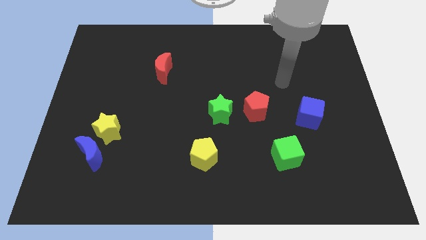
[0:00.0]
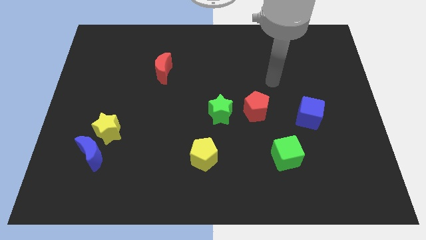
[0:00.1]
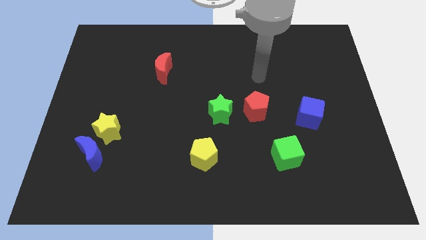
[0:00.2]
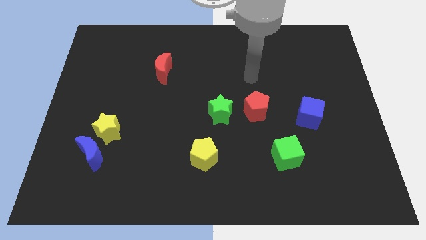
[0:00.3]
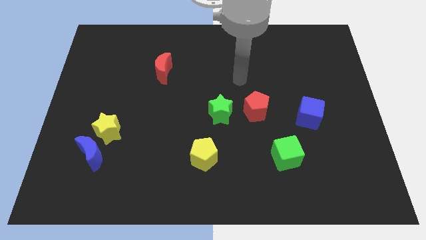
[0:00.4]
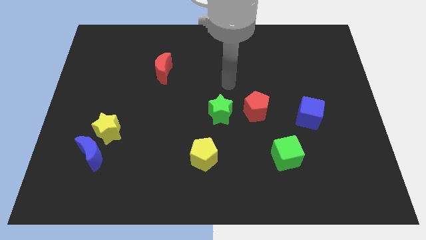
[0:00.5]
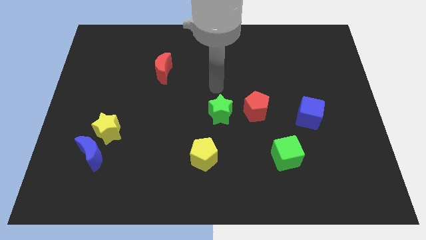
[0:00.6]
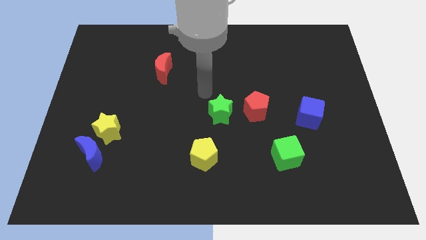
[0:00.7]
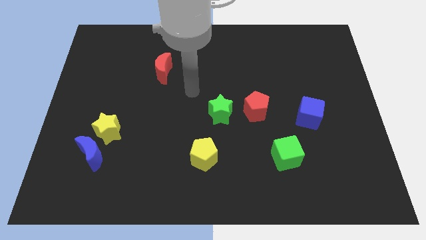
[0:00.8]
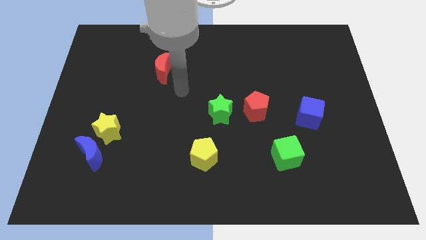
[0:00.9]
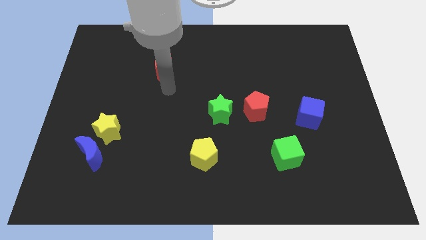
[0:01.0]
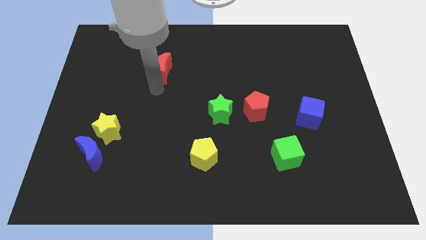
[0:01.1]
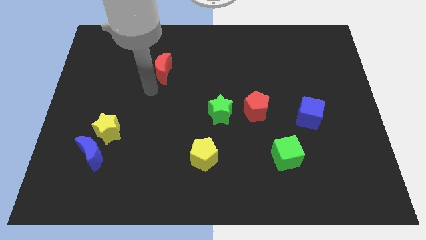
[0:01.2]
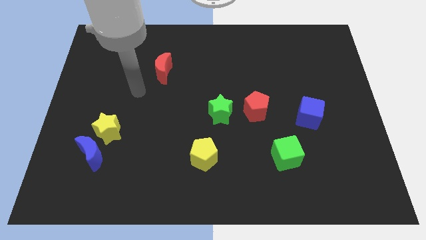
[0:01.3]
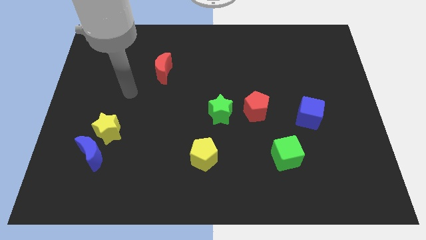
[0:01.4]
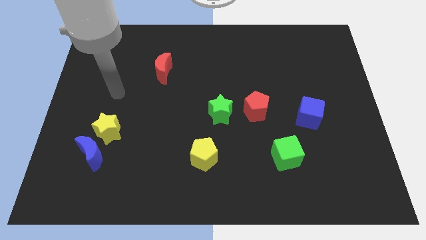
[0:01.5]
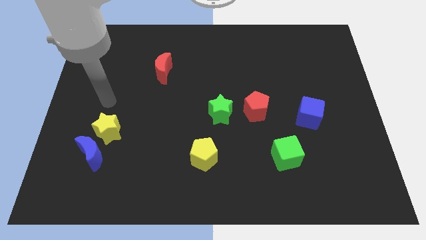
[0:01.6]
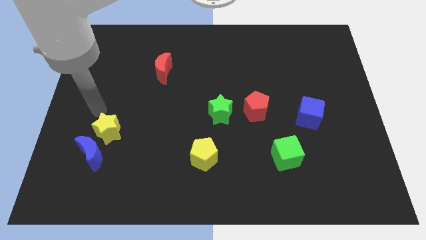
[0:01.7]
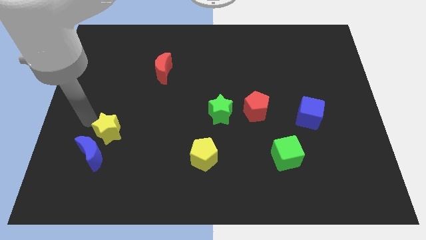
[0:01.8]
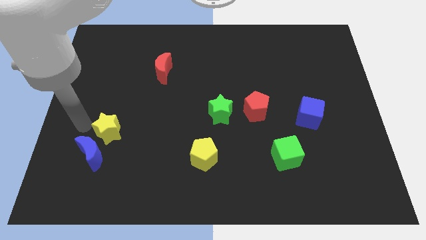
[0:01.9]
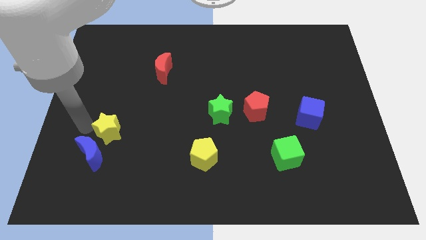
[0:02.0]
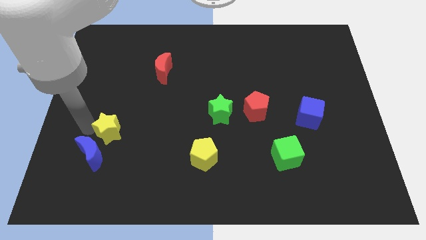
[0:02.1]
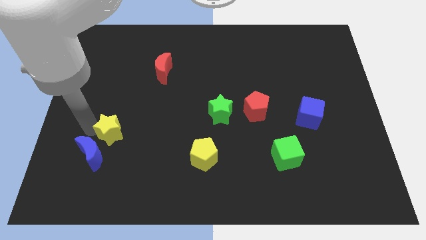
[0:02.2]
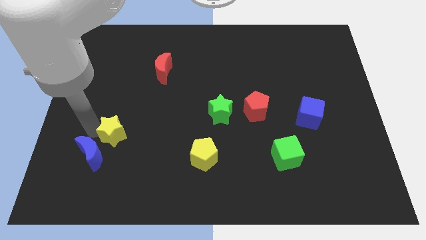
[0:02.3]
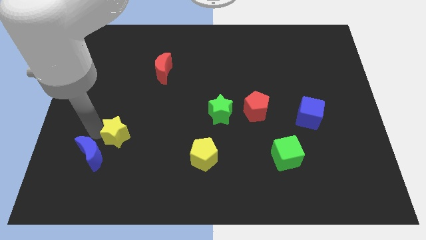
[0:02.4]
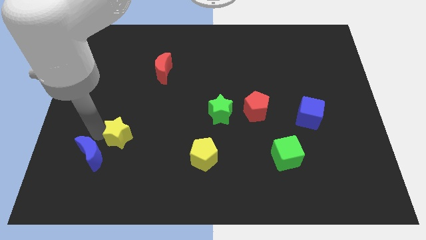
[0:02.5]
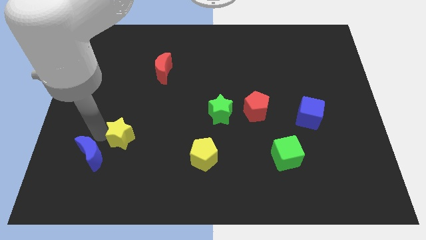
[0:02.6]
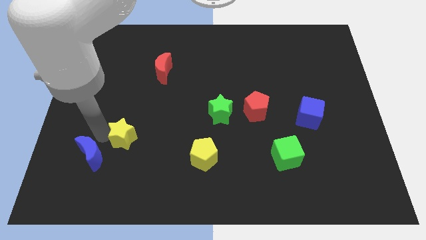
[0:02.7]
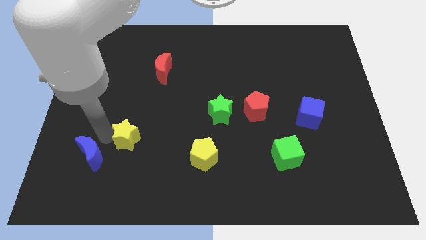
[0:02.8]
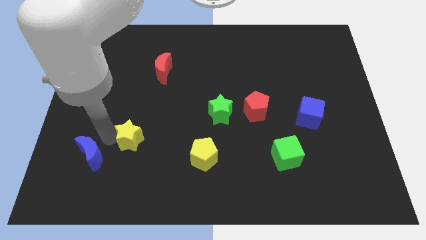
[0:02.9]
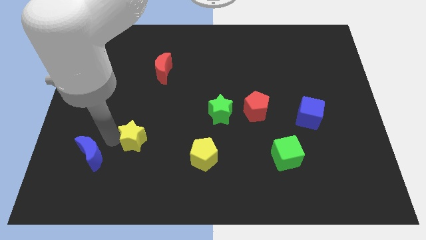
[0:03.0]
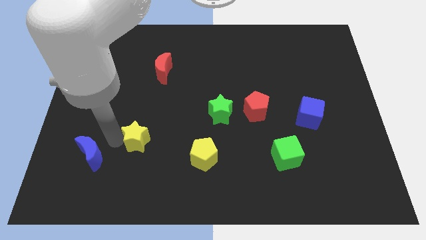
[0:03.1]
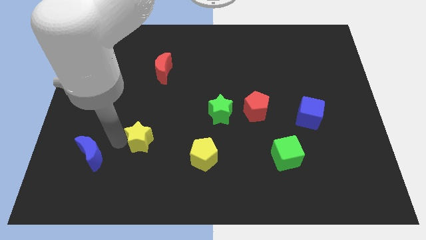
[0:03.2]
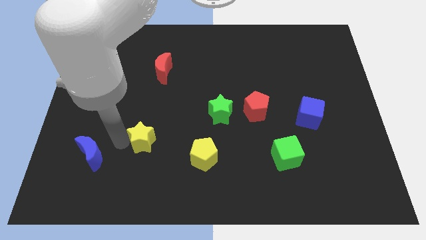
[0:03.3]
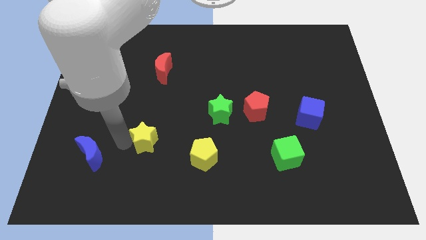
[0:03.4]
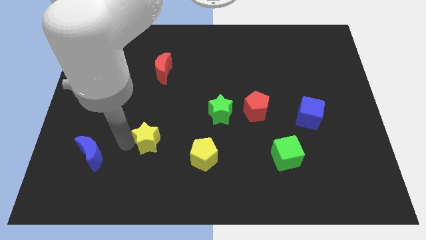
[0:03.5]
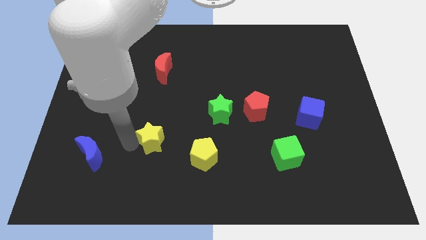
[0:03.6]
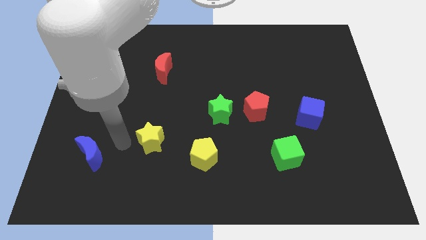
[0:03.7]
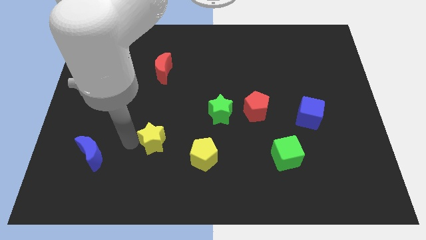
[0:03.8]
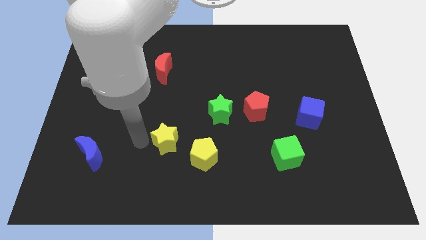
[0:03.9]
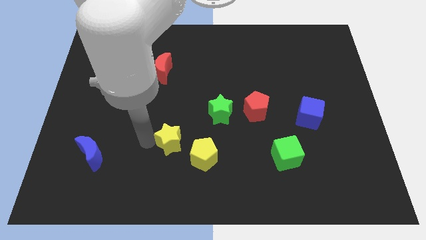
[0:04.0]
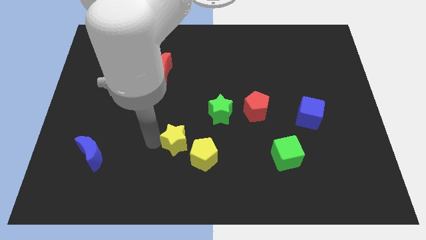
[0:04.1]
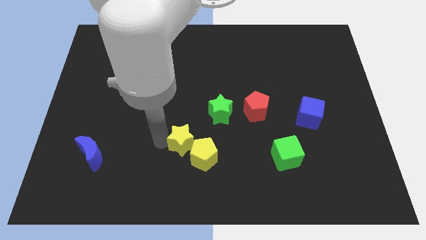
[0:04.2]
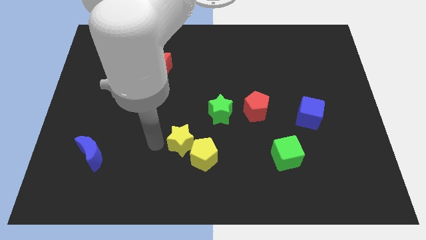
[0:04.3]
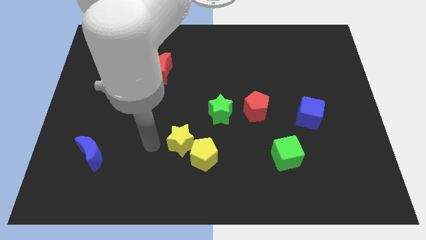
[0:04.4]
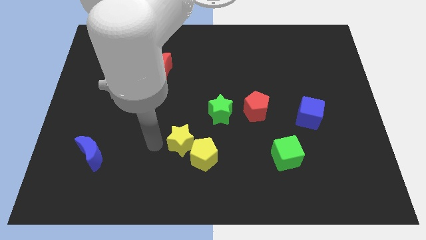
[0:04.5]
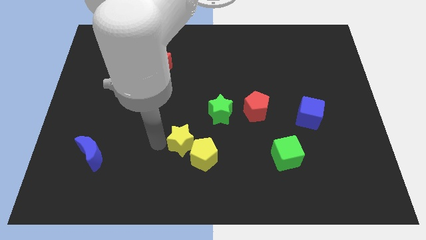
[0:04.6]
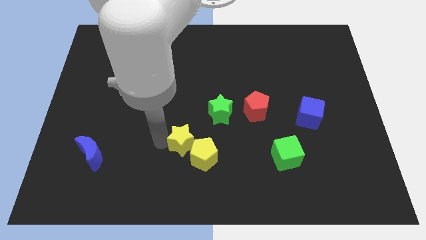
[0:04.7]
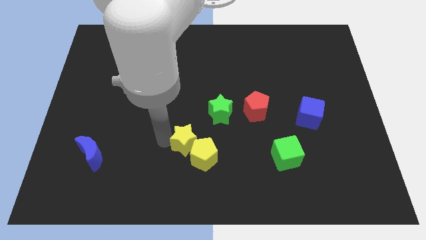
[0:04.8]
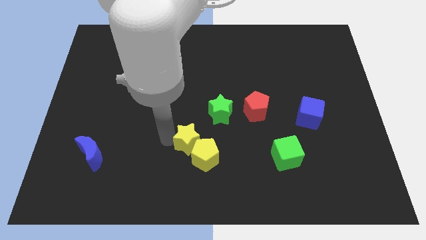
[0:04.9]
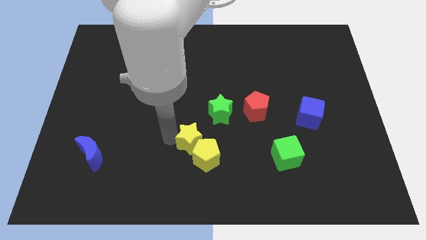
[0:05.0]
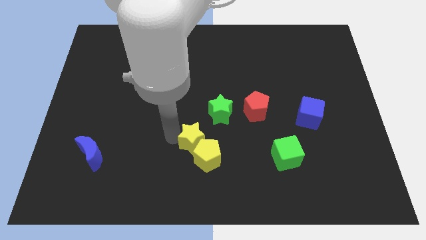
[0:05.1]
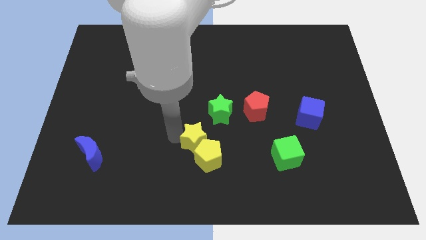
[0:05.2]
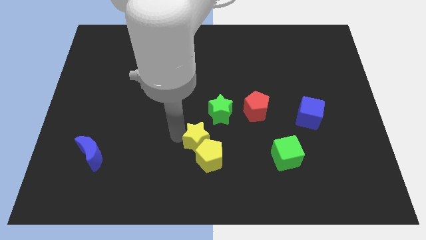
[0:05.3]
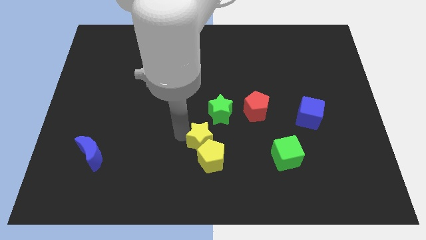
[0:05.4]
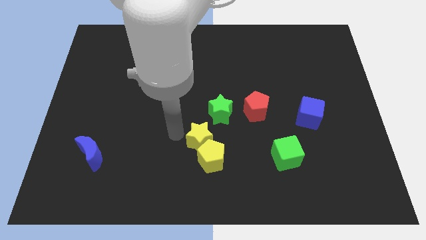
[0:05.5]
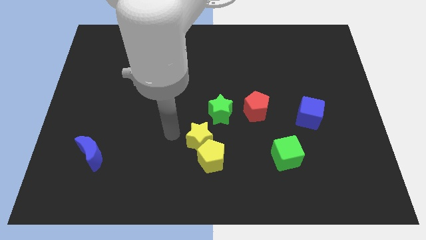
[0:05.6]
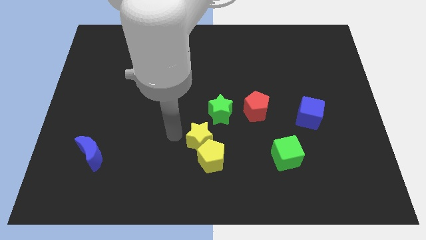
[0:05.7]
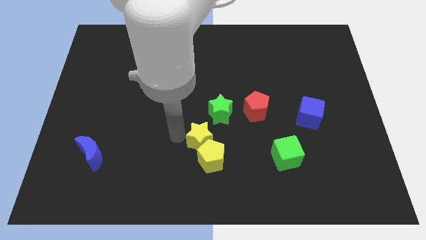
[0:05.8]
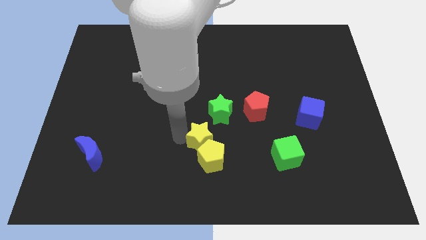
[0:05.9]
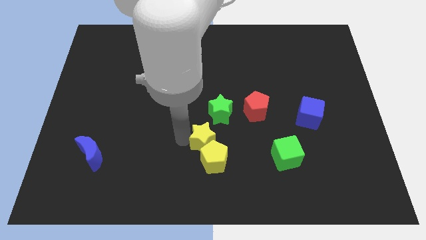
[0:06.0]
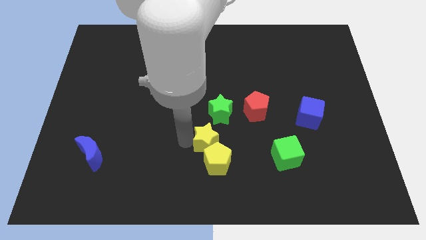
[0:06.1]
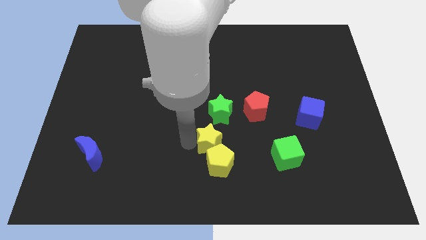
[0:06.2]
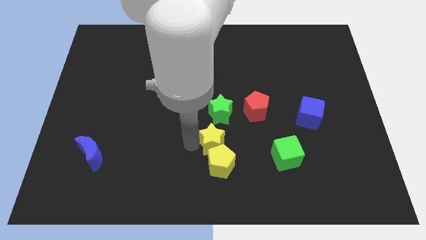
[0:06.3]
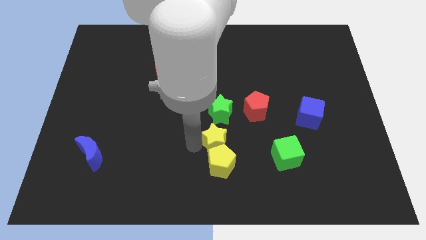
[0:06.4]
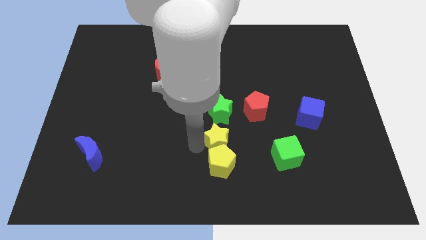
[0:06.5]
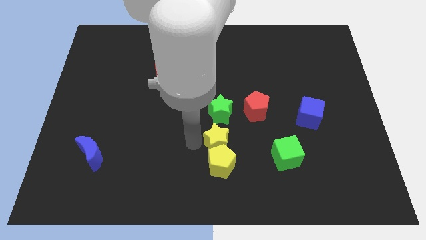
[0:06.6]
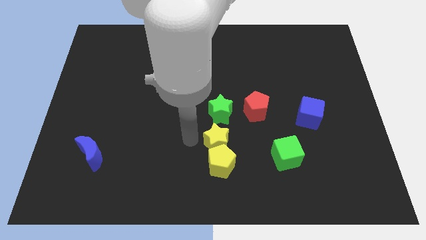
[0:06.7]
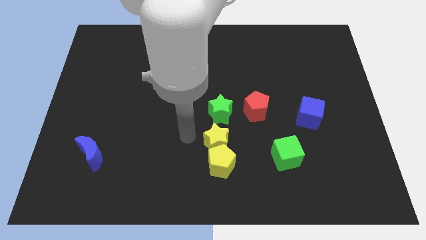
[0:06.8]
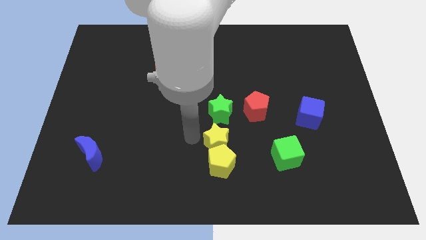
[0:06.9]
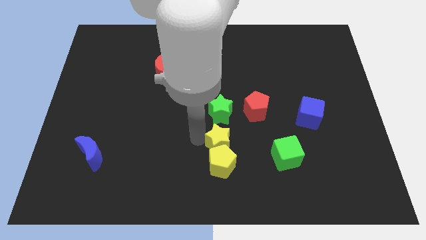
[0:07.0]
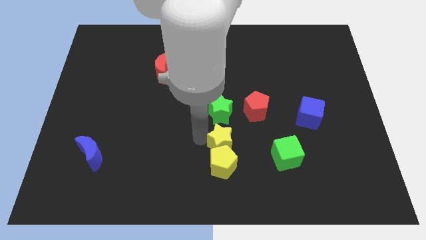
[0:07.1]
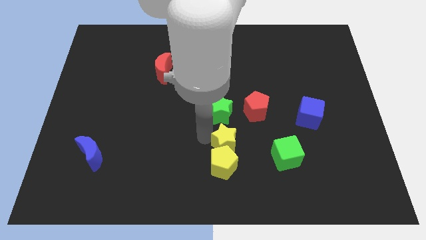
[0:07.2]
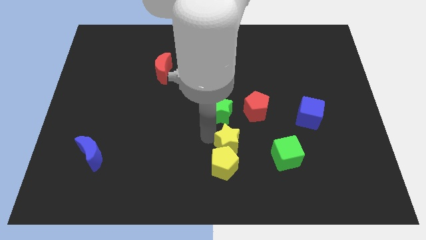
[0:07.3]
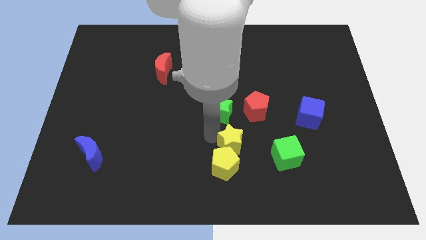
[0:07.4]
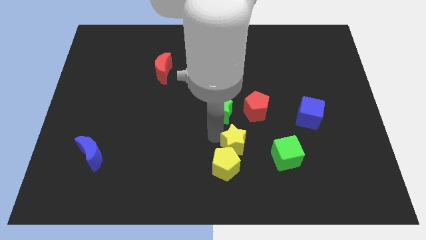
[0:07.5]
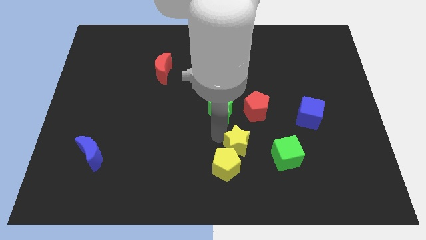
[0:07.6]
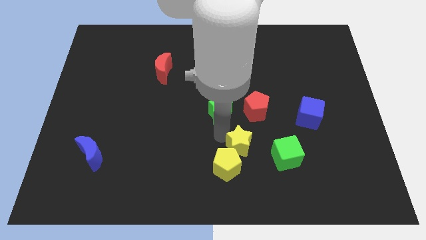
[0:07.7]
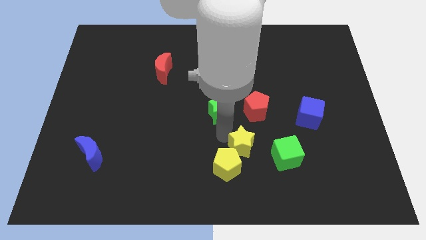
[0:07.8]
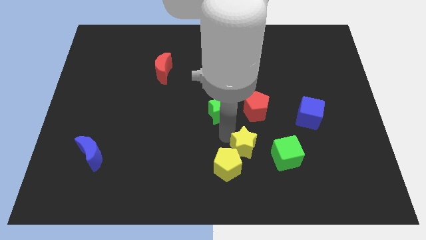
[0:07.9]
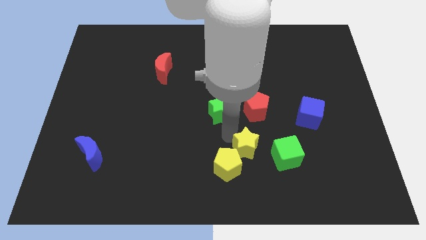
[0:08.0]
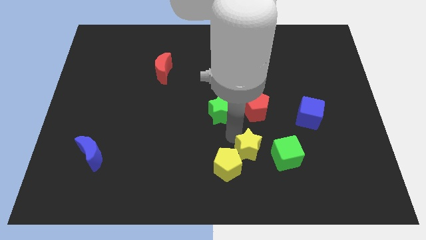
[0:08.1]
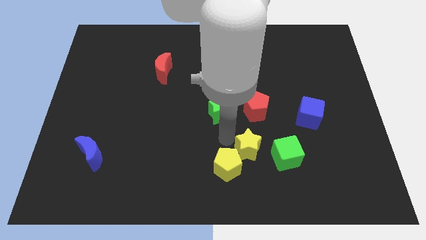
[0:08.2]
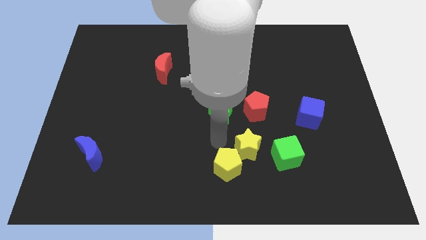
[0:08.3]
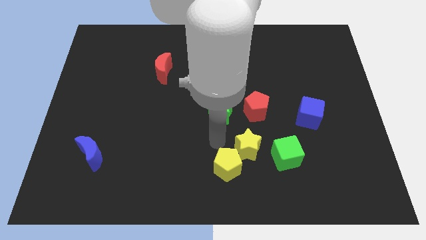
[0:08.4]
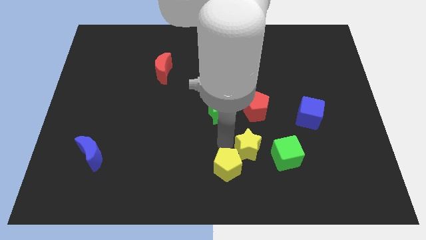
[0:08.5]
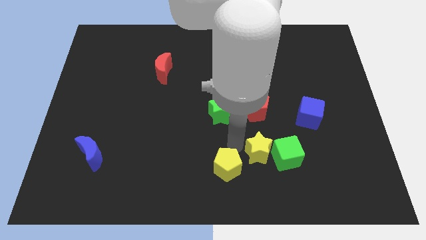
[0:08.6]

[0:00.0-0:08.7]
push the yellow star next to the green cube
